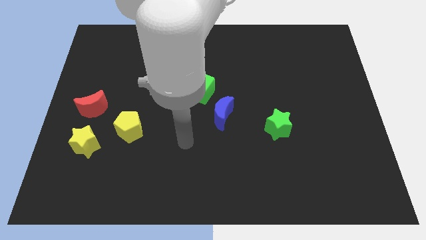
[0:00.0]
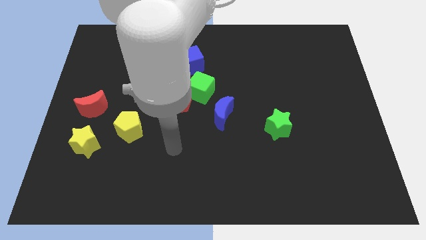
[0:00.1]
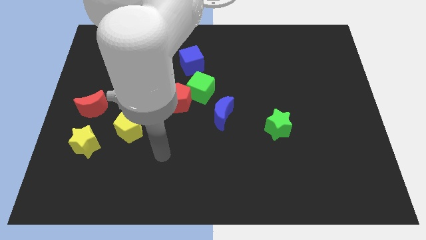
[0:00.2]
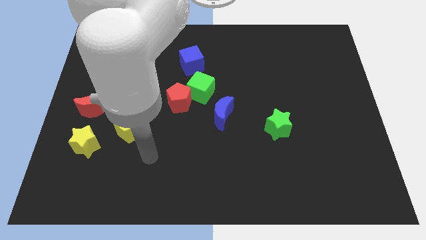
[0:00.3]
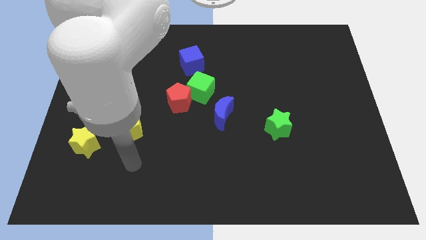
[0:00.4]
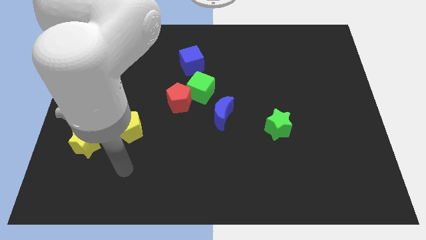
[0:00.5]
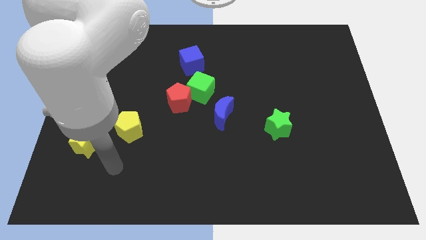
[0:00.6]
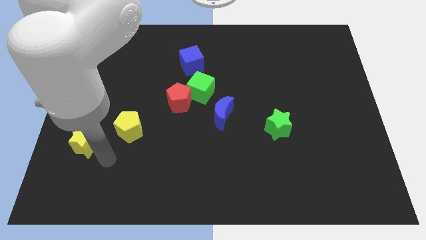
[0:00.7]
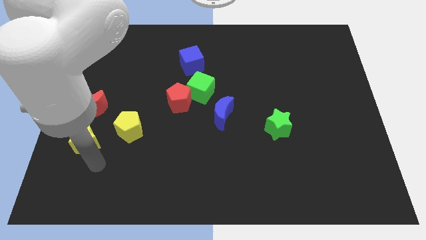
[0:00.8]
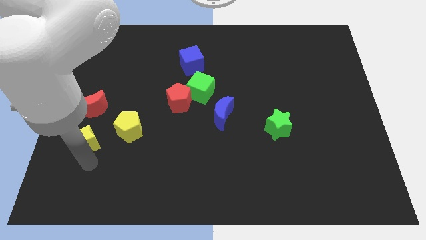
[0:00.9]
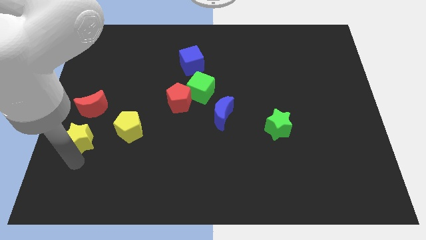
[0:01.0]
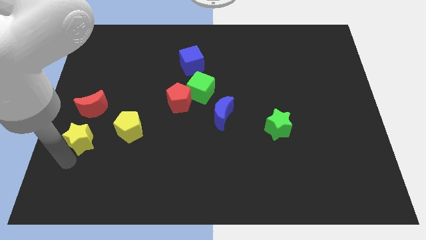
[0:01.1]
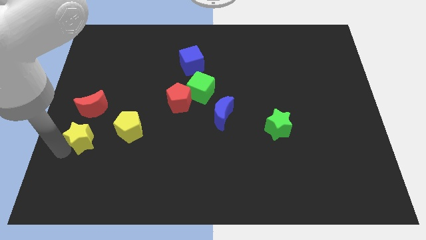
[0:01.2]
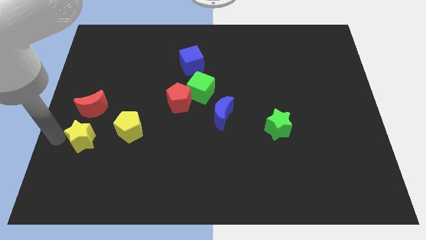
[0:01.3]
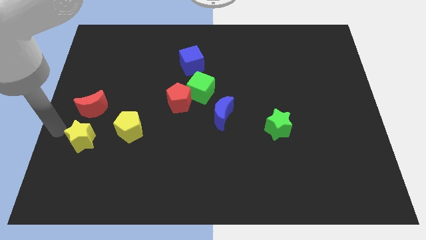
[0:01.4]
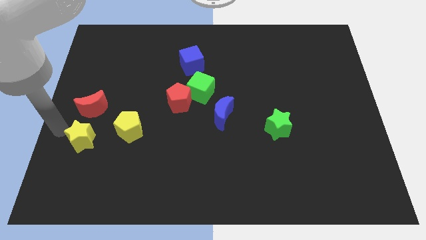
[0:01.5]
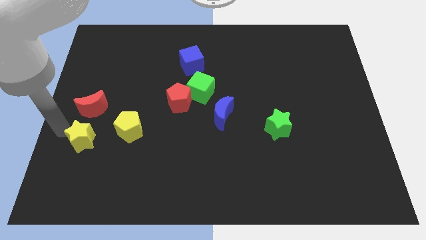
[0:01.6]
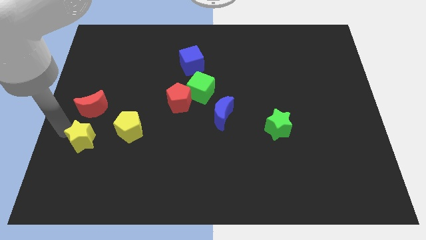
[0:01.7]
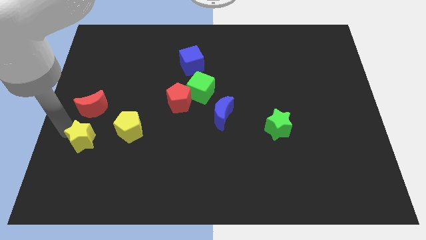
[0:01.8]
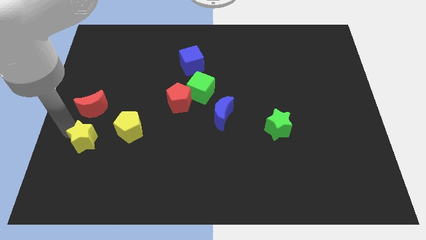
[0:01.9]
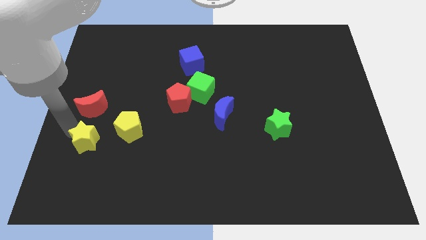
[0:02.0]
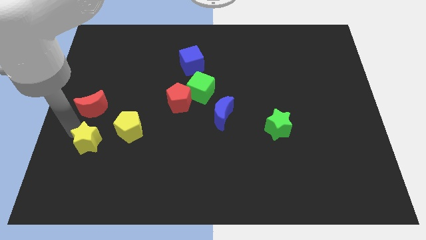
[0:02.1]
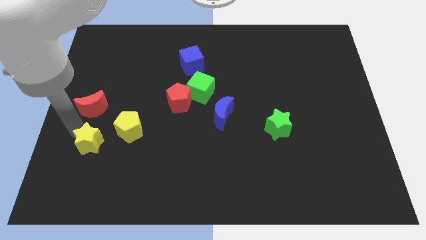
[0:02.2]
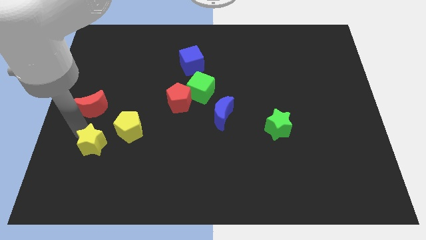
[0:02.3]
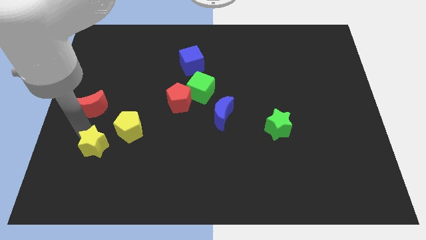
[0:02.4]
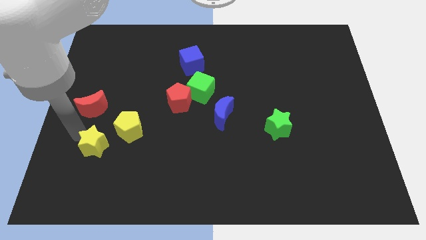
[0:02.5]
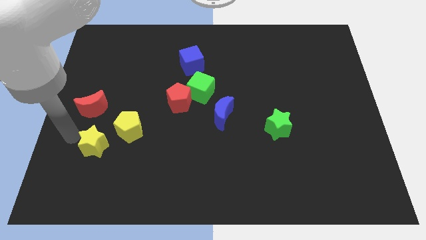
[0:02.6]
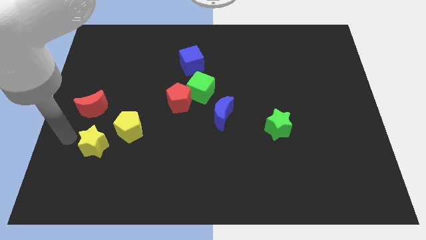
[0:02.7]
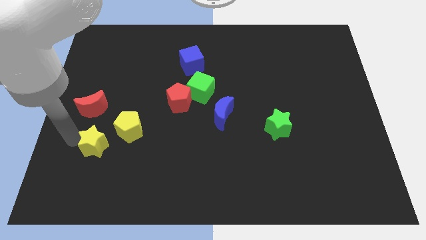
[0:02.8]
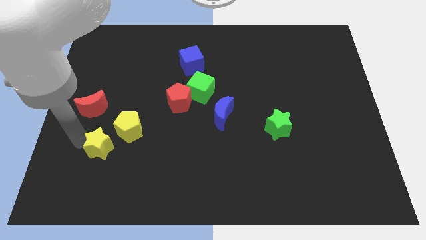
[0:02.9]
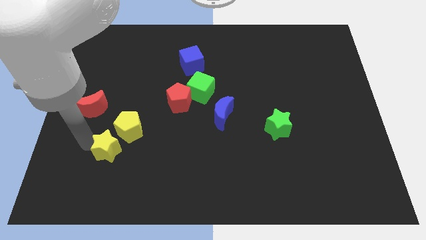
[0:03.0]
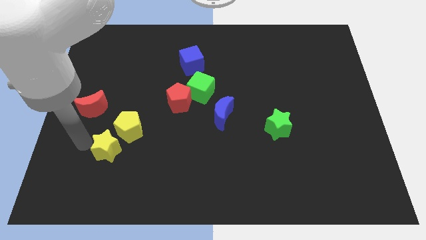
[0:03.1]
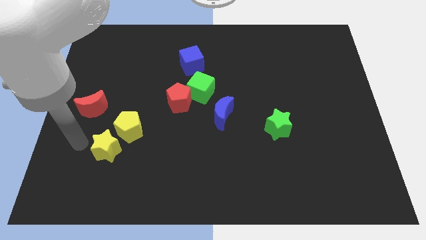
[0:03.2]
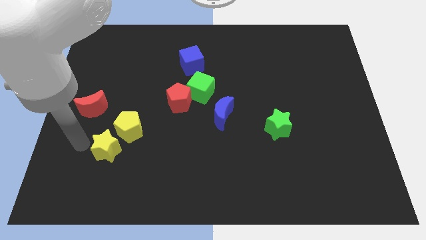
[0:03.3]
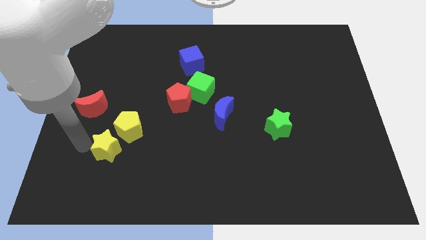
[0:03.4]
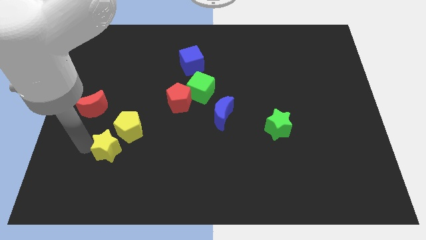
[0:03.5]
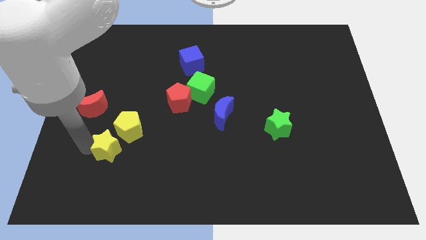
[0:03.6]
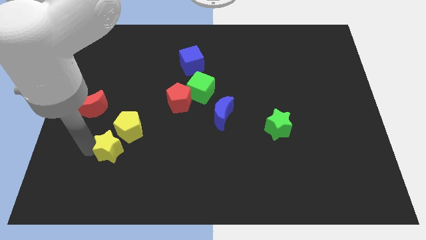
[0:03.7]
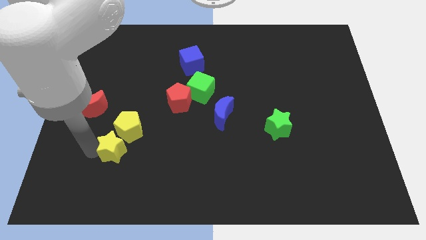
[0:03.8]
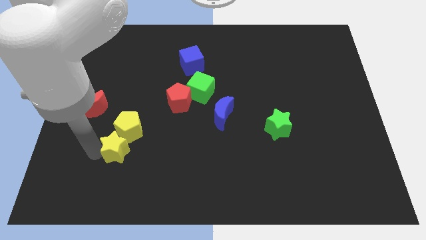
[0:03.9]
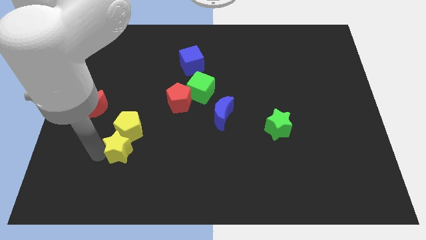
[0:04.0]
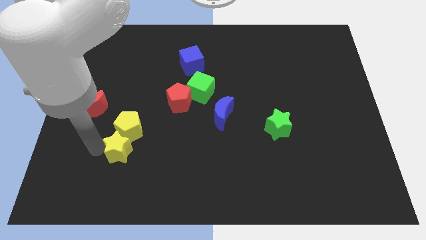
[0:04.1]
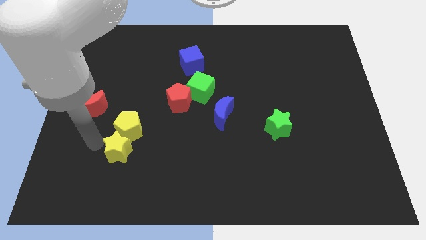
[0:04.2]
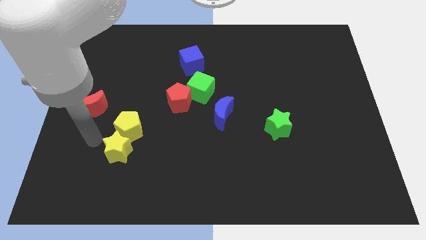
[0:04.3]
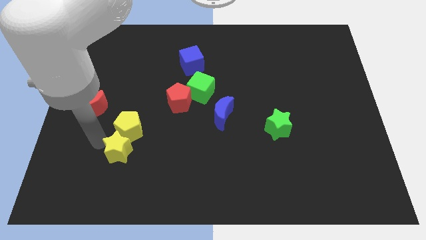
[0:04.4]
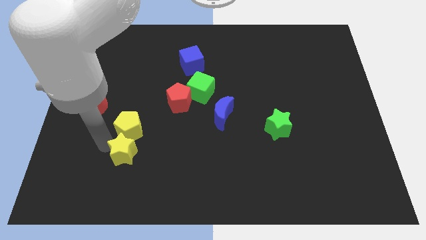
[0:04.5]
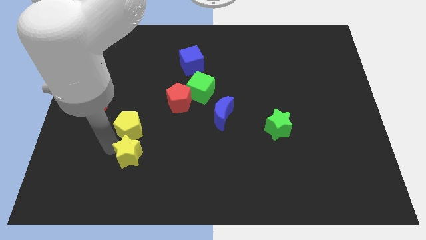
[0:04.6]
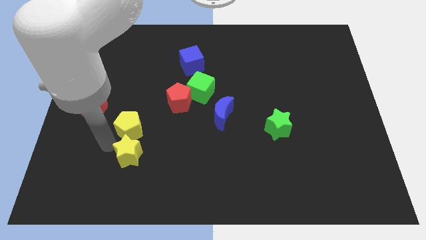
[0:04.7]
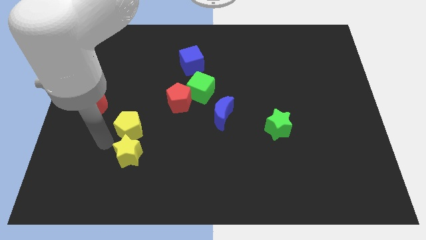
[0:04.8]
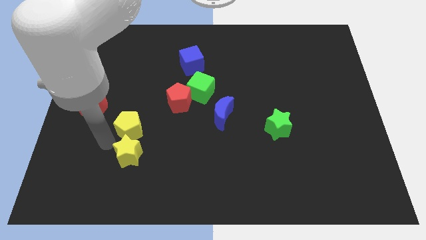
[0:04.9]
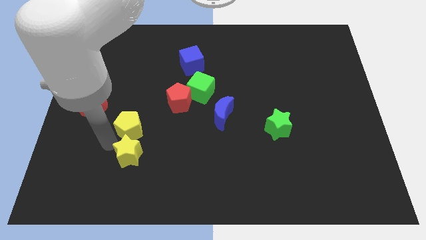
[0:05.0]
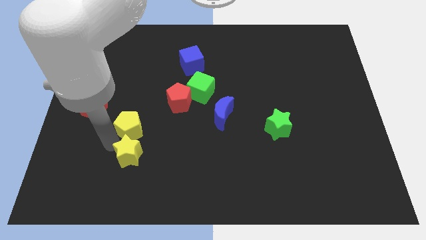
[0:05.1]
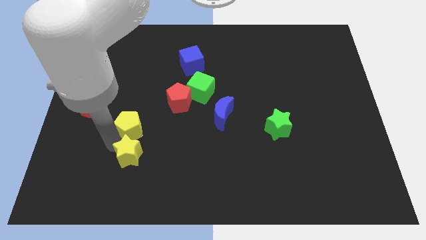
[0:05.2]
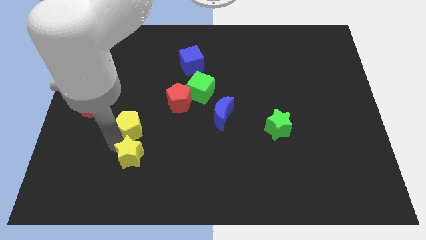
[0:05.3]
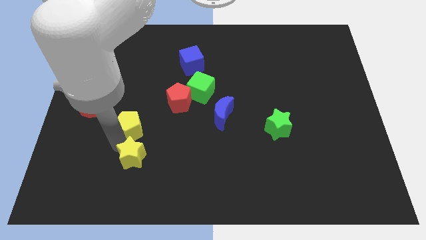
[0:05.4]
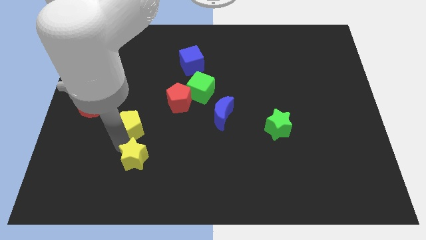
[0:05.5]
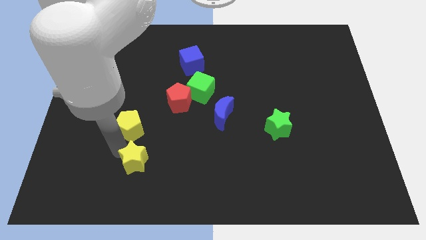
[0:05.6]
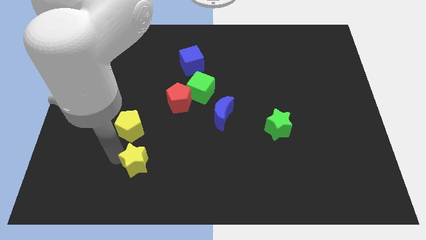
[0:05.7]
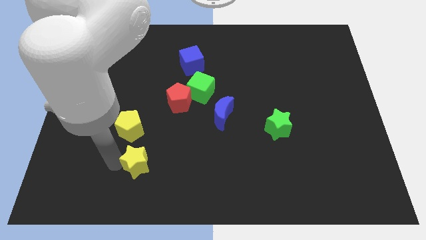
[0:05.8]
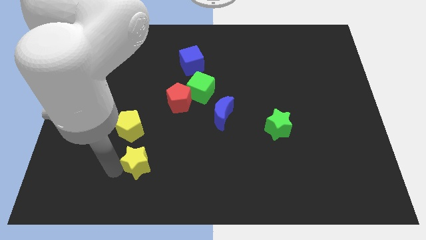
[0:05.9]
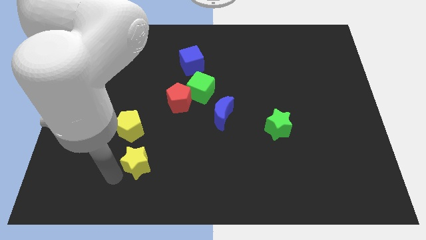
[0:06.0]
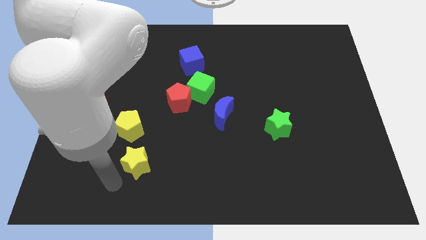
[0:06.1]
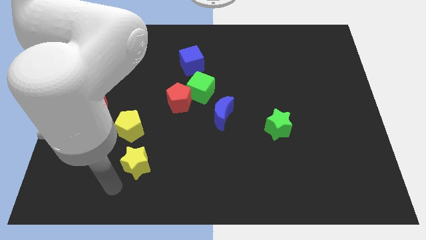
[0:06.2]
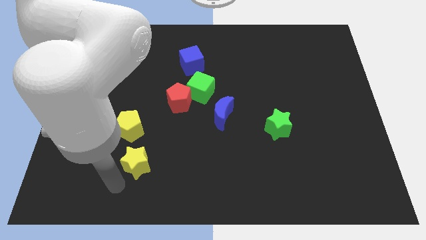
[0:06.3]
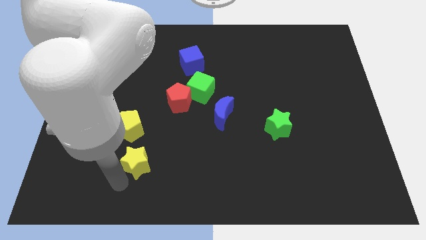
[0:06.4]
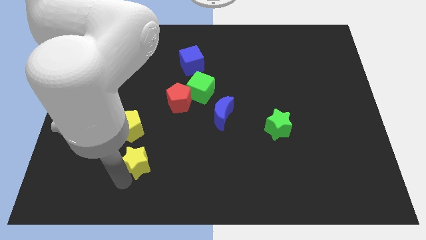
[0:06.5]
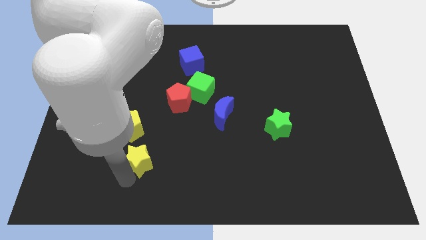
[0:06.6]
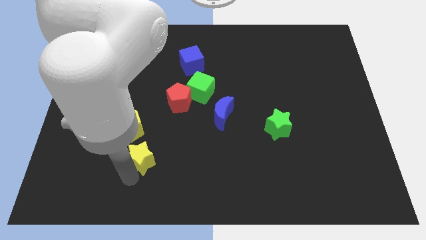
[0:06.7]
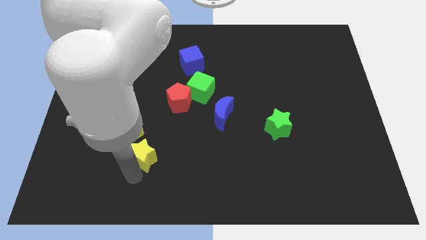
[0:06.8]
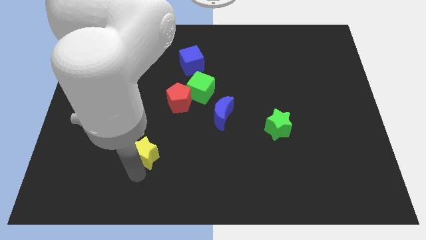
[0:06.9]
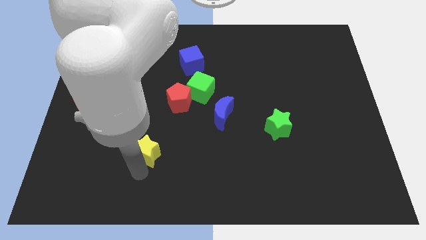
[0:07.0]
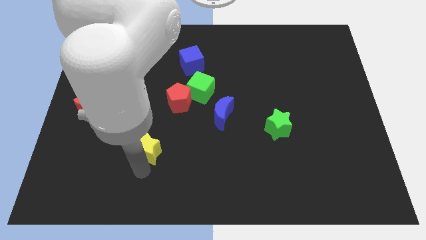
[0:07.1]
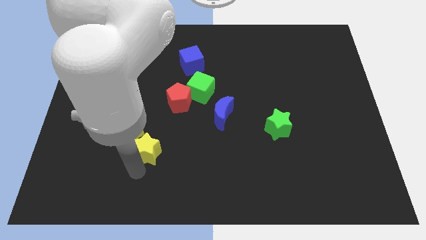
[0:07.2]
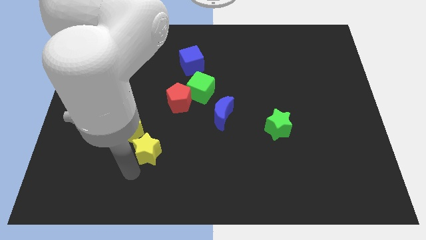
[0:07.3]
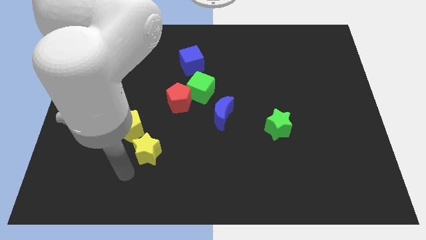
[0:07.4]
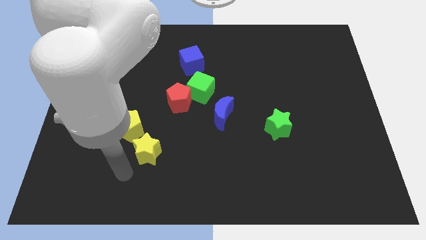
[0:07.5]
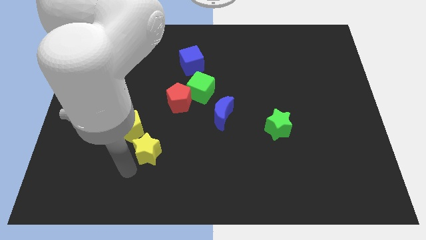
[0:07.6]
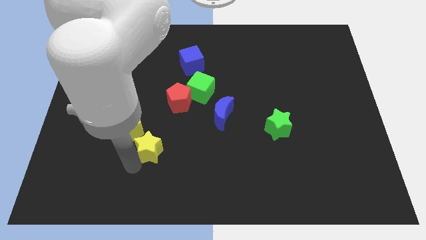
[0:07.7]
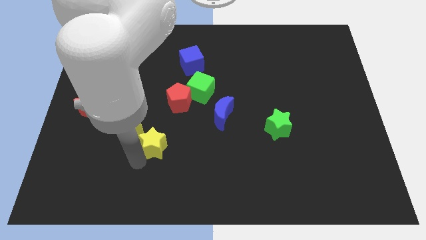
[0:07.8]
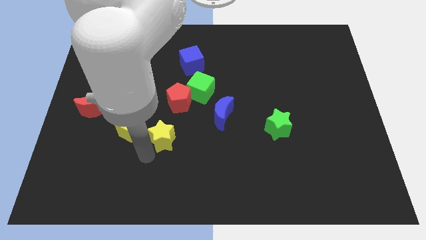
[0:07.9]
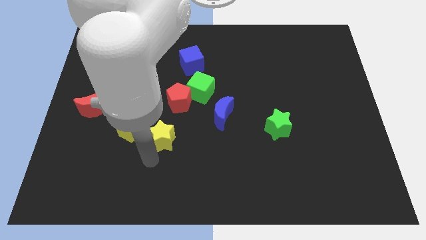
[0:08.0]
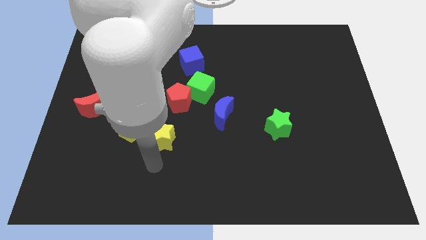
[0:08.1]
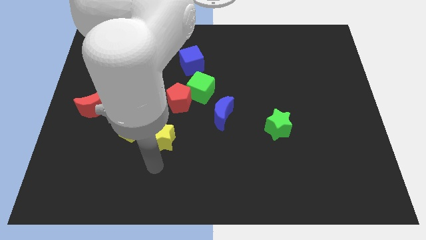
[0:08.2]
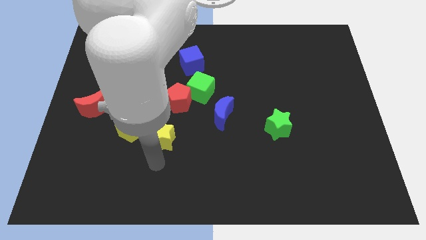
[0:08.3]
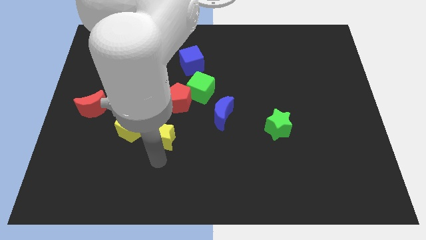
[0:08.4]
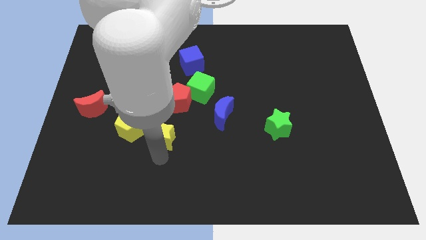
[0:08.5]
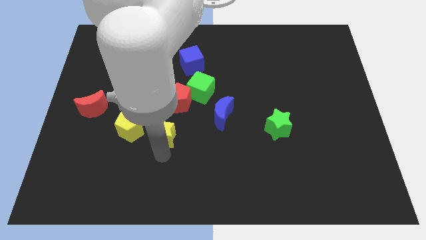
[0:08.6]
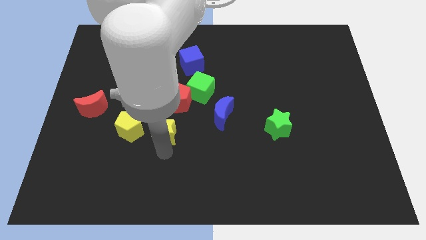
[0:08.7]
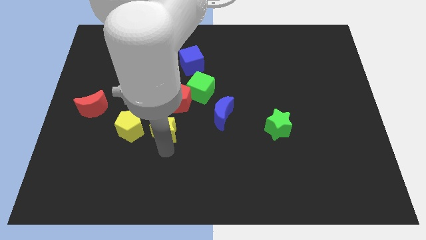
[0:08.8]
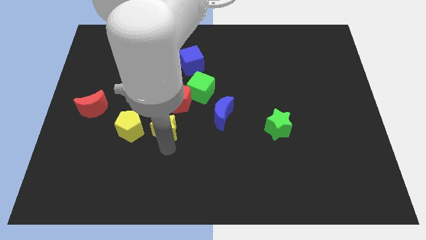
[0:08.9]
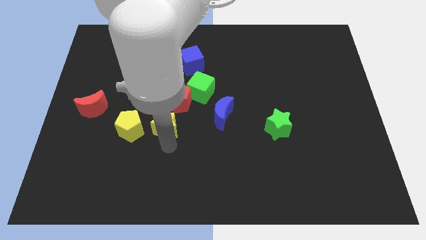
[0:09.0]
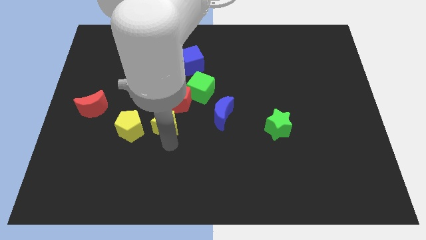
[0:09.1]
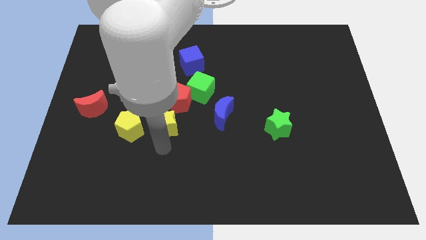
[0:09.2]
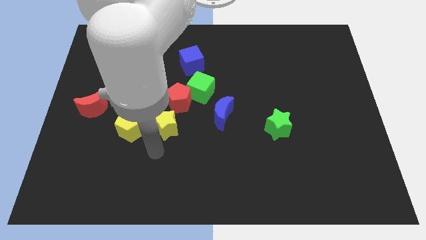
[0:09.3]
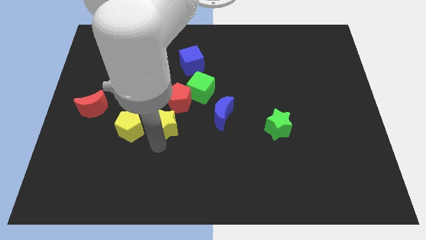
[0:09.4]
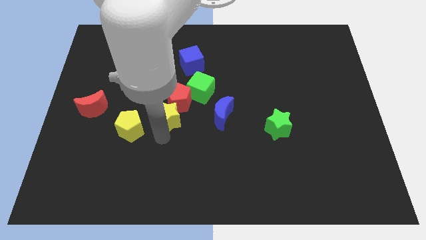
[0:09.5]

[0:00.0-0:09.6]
put the yellow star close to the red pentagon
